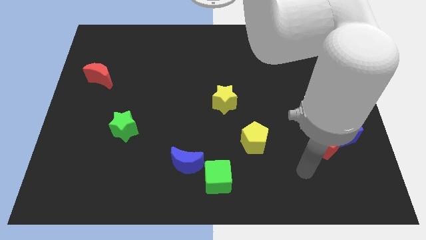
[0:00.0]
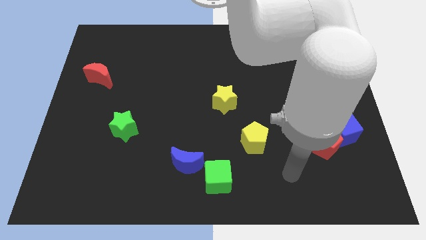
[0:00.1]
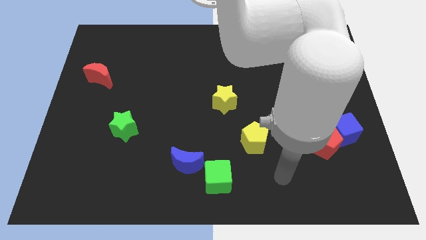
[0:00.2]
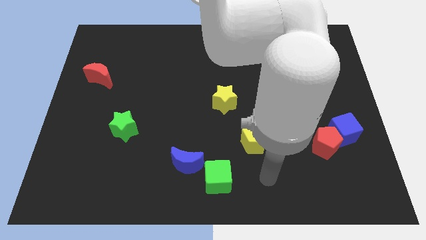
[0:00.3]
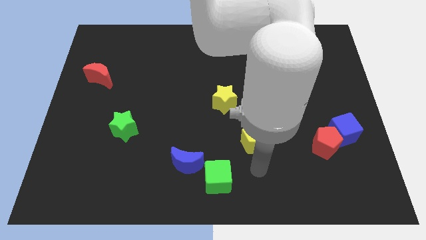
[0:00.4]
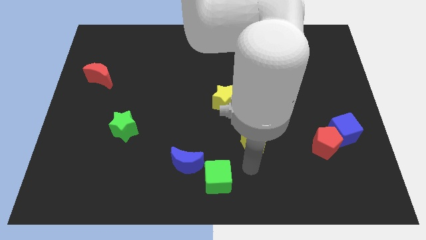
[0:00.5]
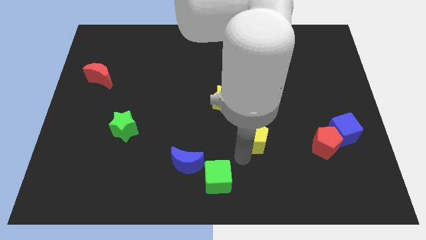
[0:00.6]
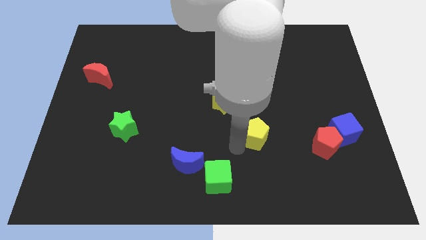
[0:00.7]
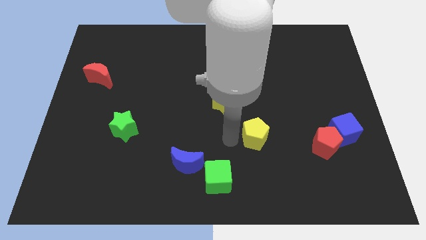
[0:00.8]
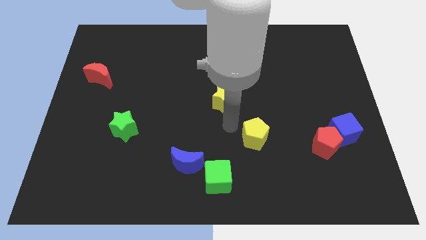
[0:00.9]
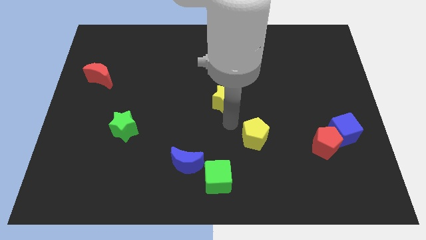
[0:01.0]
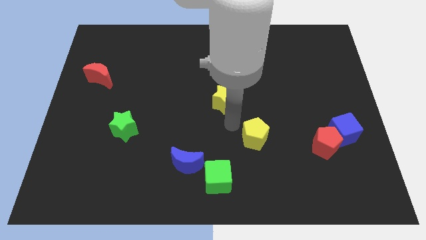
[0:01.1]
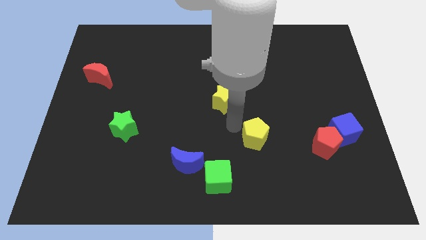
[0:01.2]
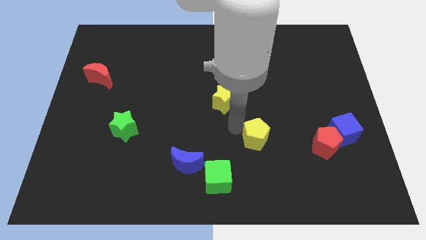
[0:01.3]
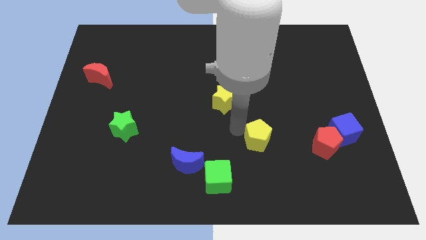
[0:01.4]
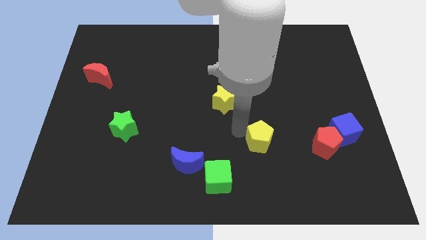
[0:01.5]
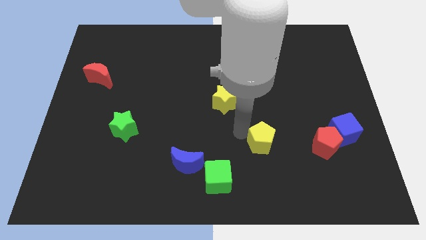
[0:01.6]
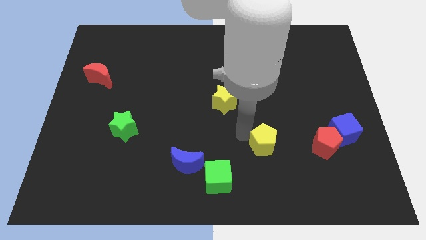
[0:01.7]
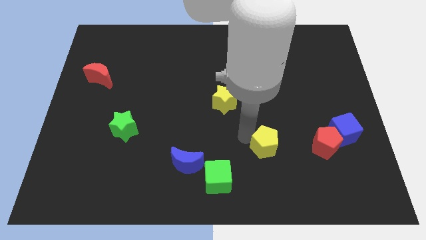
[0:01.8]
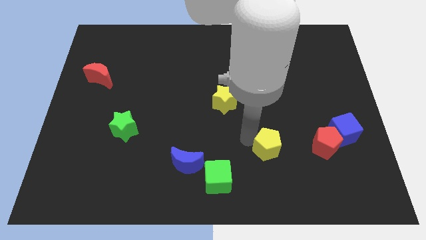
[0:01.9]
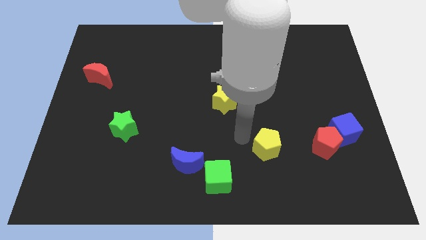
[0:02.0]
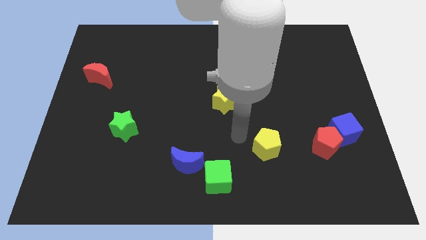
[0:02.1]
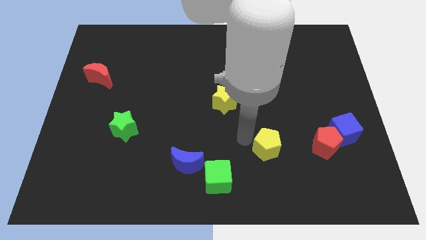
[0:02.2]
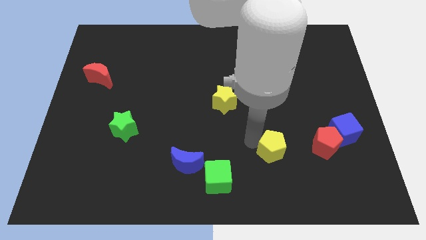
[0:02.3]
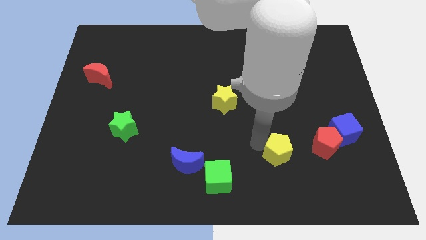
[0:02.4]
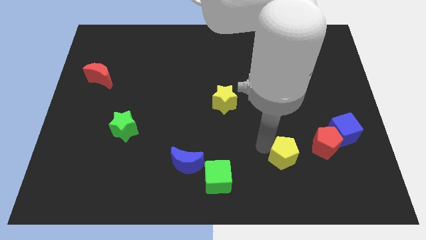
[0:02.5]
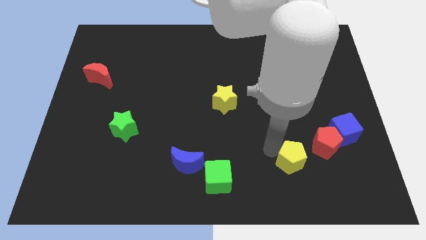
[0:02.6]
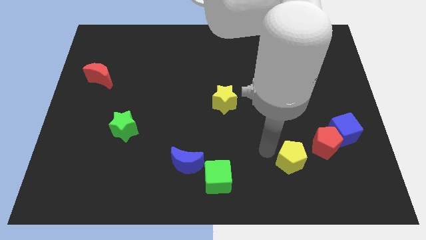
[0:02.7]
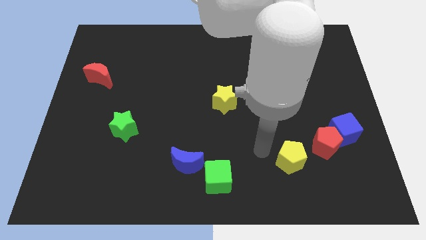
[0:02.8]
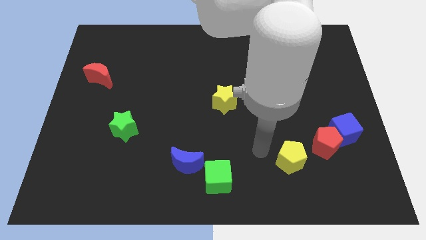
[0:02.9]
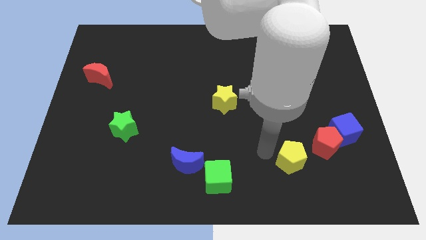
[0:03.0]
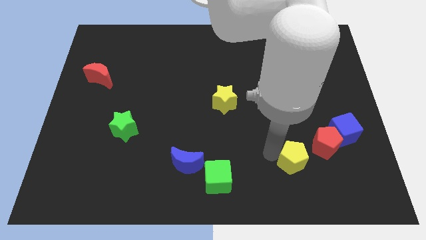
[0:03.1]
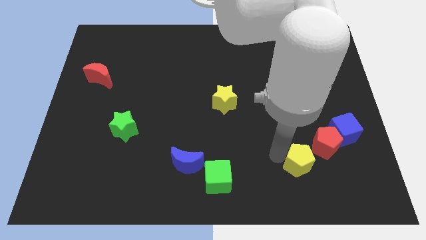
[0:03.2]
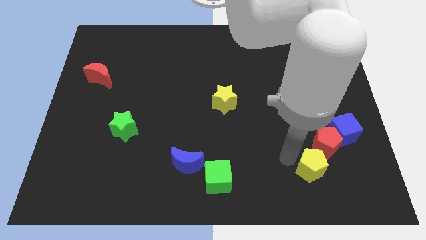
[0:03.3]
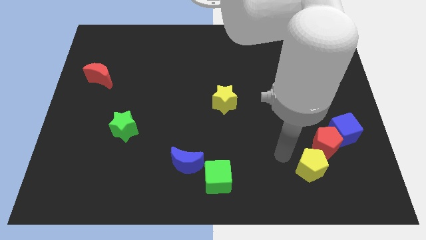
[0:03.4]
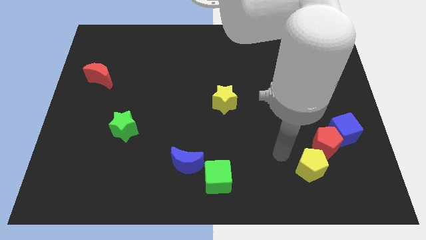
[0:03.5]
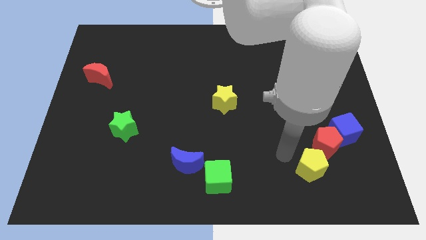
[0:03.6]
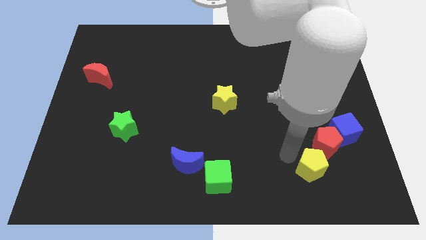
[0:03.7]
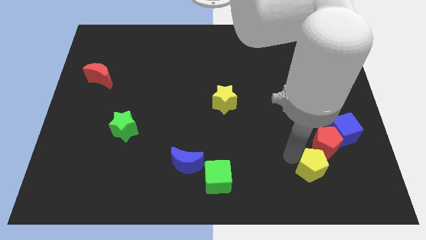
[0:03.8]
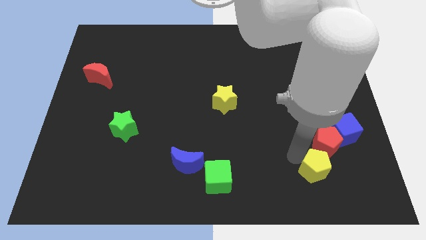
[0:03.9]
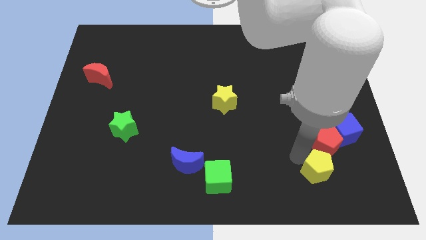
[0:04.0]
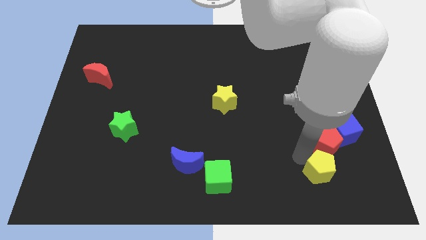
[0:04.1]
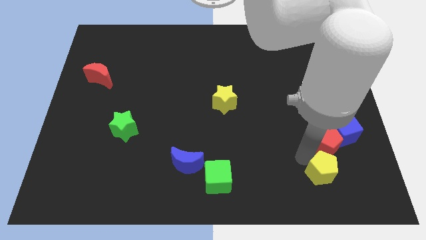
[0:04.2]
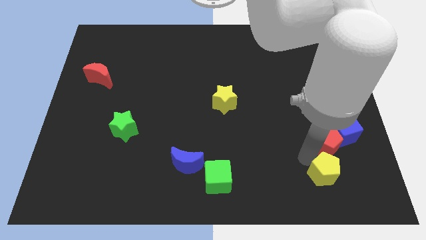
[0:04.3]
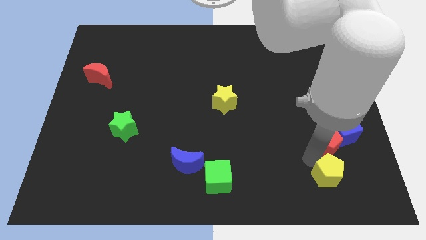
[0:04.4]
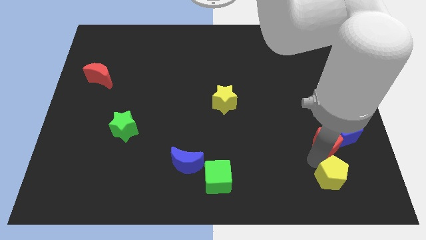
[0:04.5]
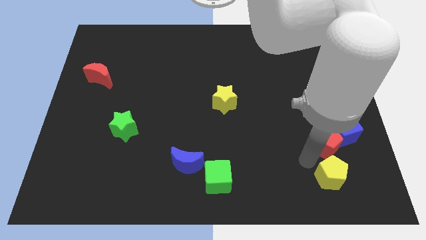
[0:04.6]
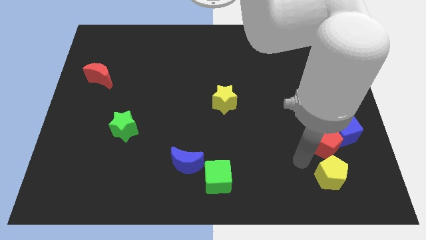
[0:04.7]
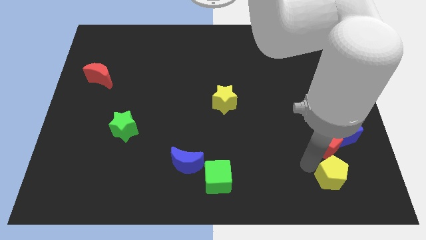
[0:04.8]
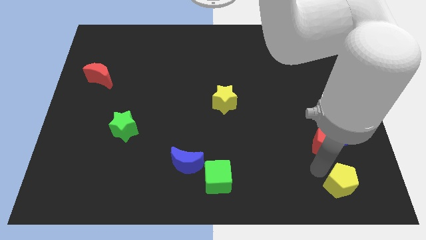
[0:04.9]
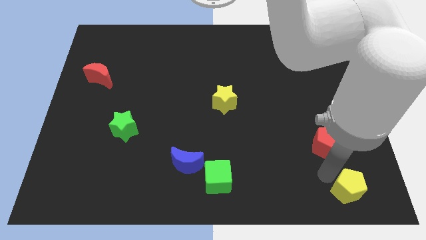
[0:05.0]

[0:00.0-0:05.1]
push the yellow pentagon to the bottom right of the board

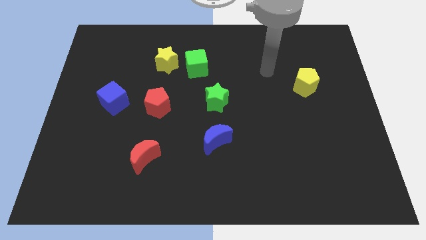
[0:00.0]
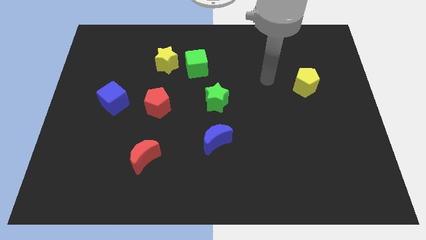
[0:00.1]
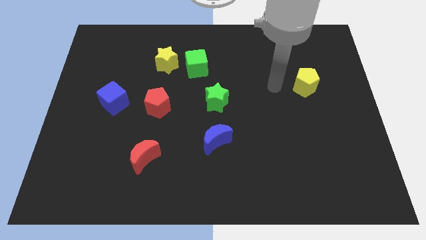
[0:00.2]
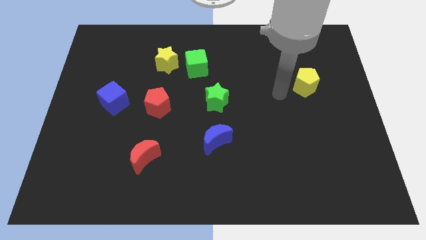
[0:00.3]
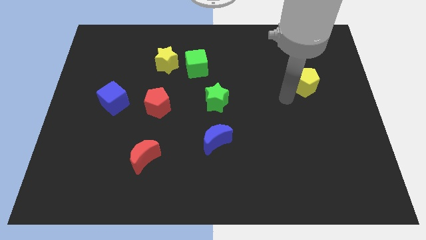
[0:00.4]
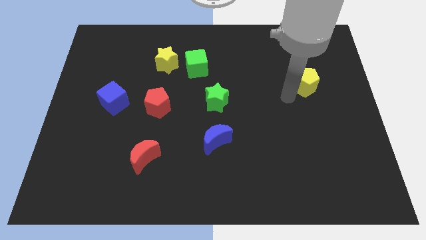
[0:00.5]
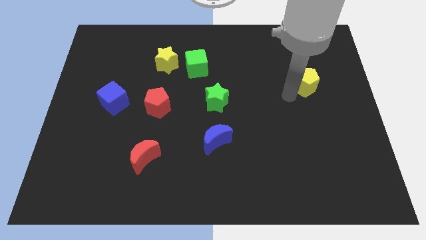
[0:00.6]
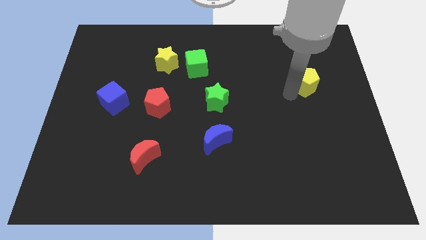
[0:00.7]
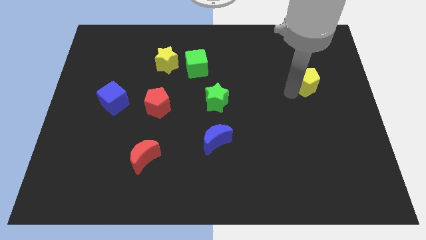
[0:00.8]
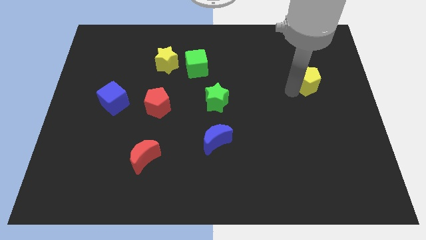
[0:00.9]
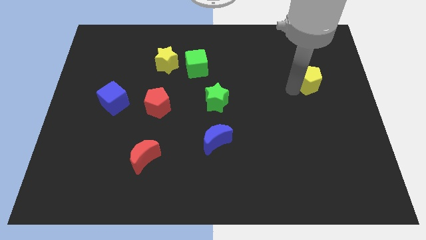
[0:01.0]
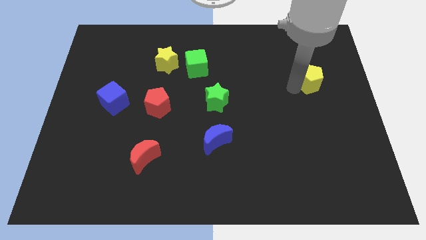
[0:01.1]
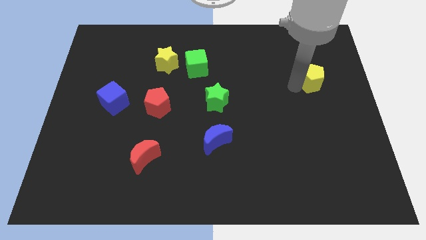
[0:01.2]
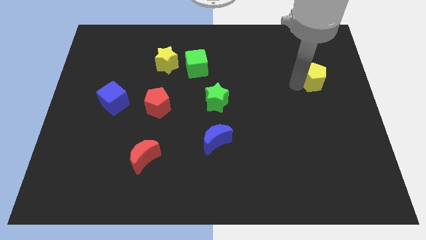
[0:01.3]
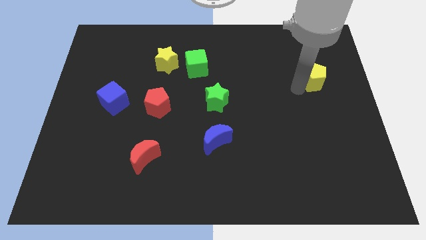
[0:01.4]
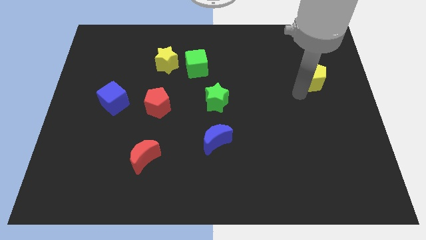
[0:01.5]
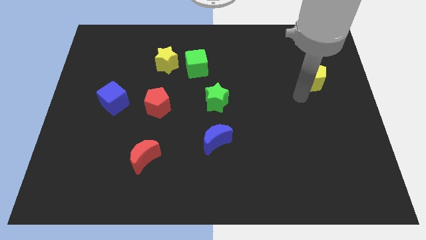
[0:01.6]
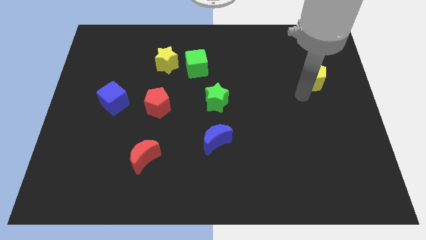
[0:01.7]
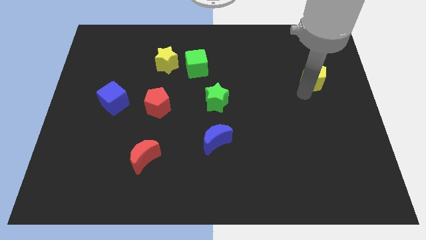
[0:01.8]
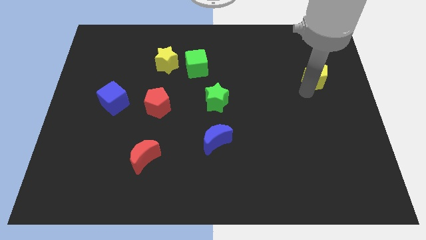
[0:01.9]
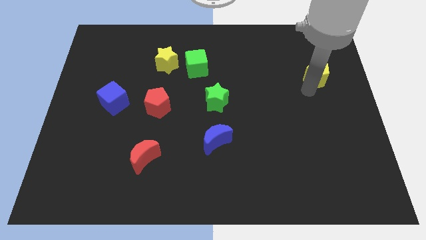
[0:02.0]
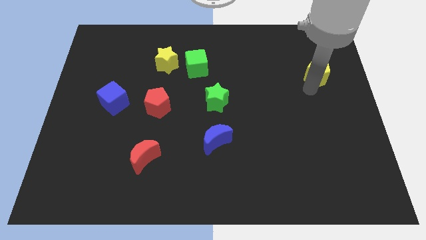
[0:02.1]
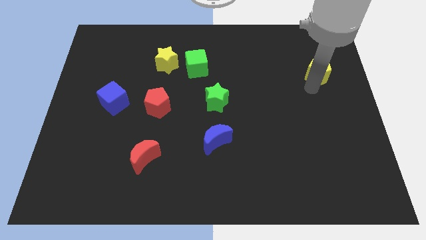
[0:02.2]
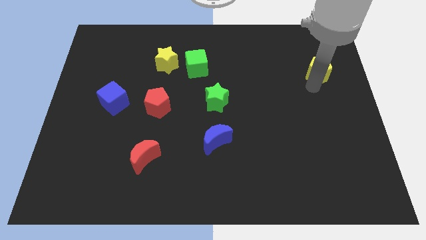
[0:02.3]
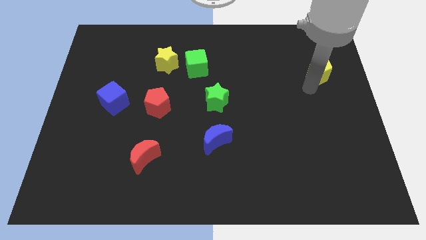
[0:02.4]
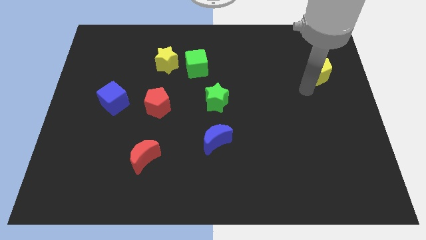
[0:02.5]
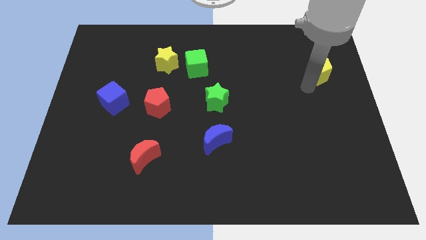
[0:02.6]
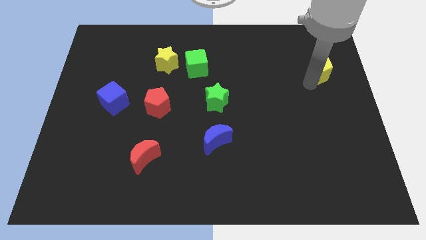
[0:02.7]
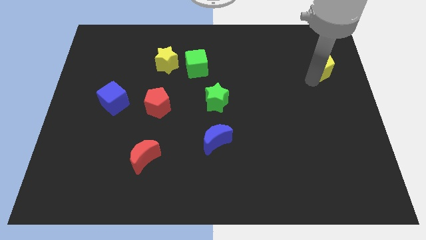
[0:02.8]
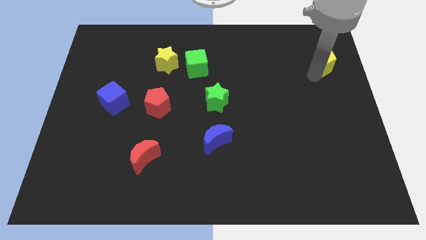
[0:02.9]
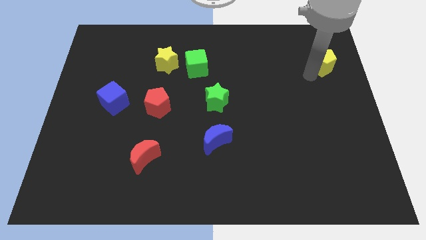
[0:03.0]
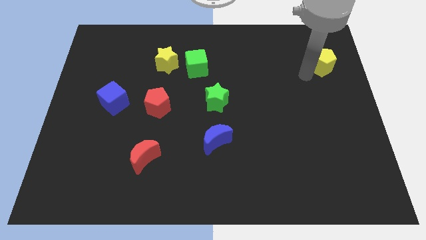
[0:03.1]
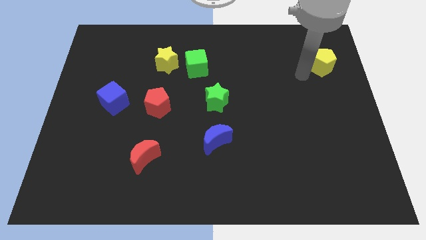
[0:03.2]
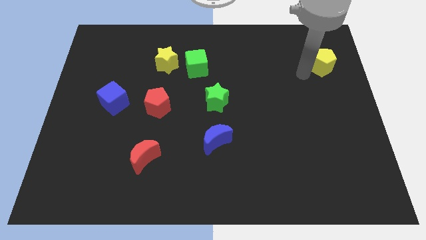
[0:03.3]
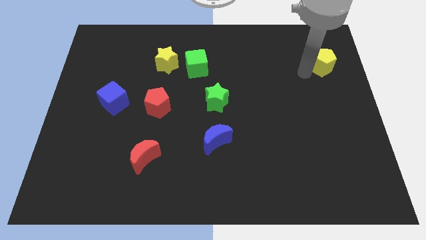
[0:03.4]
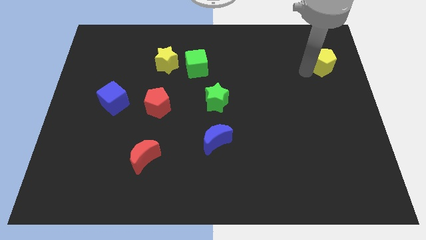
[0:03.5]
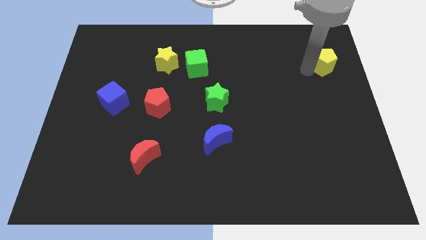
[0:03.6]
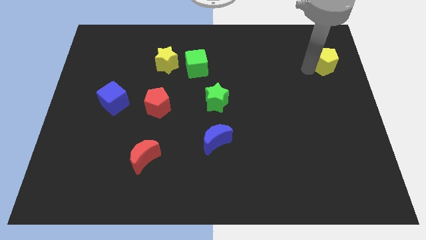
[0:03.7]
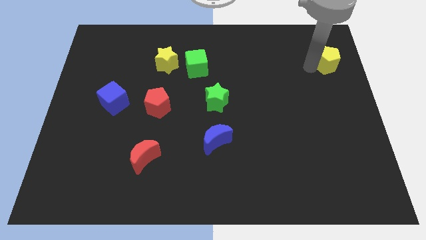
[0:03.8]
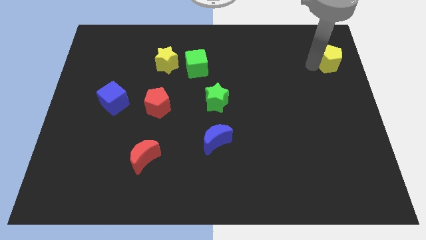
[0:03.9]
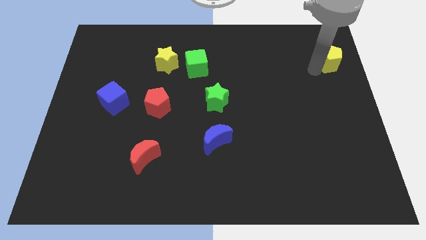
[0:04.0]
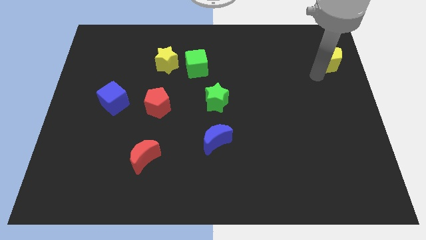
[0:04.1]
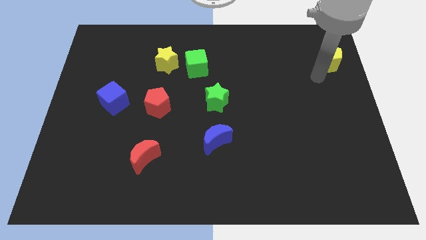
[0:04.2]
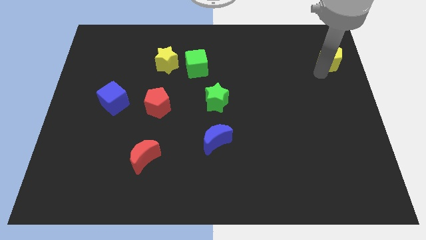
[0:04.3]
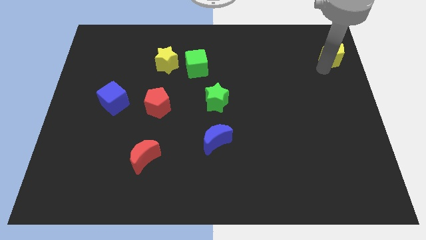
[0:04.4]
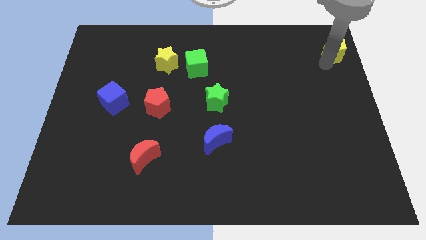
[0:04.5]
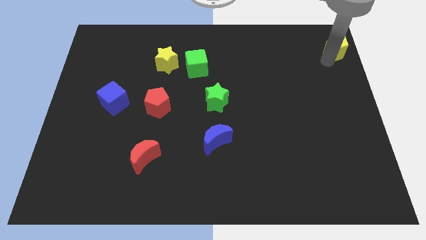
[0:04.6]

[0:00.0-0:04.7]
put the yellow pentagon to the top right of the board
